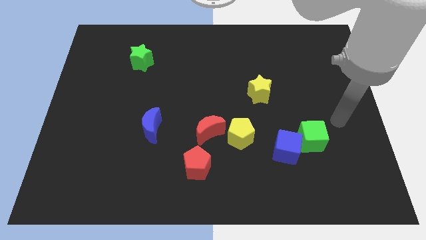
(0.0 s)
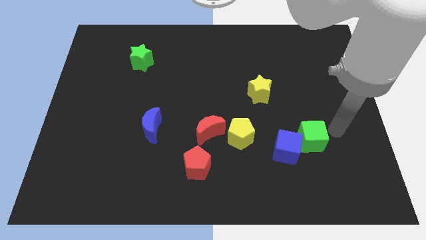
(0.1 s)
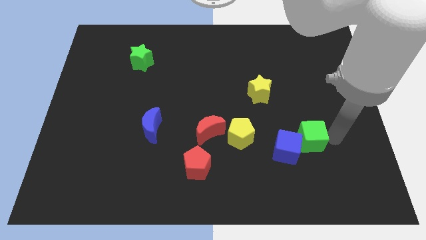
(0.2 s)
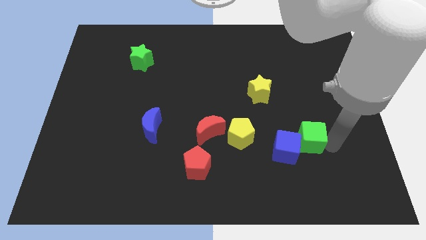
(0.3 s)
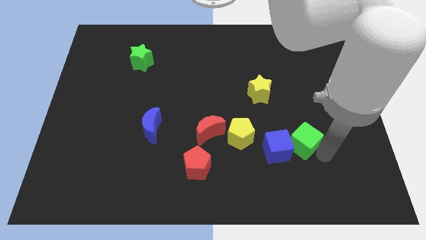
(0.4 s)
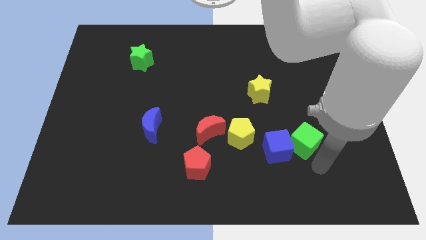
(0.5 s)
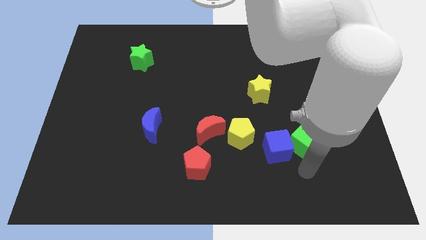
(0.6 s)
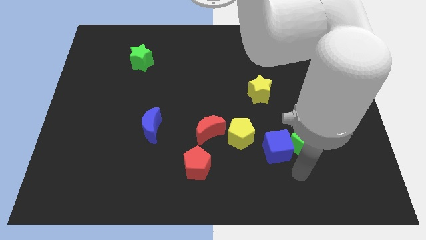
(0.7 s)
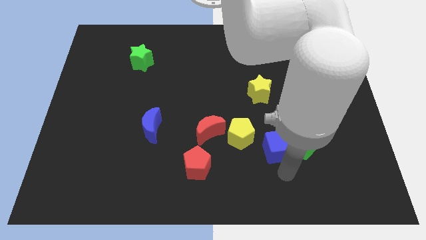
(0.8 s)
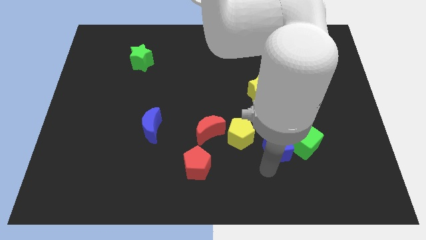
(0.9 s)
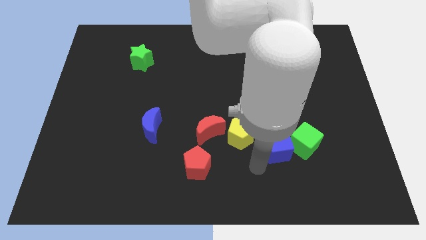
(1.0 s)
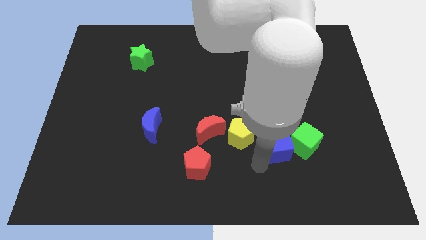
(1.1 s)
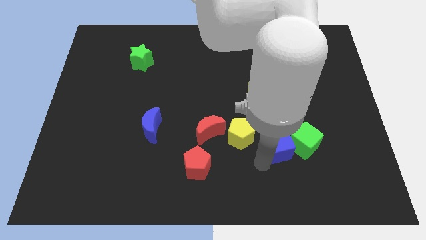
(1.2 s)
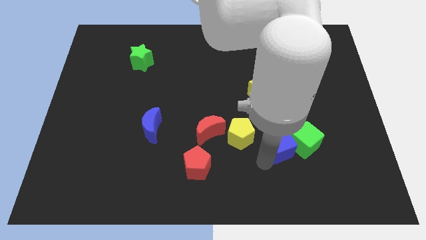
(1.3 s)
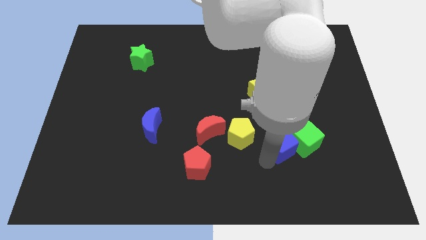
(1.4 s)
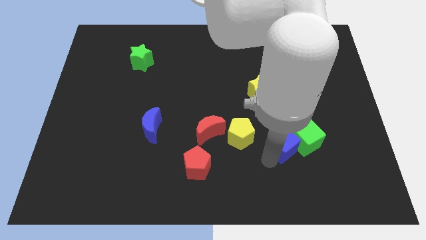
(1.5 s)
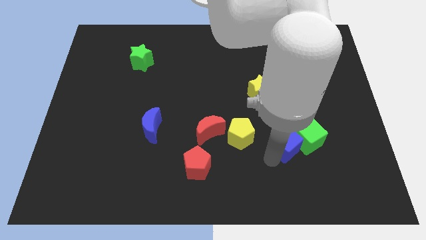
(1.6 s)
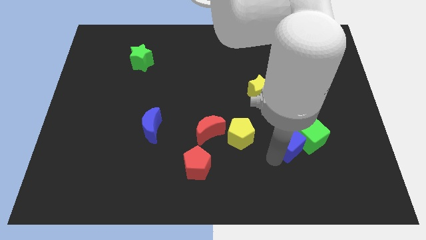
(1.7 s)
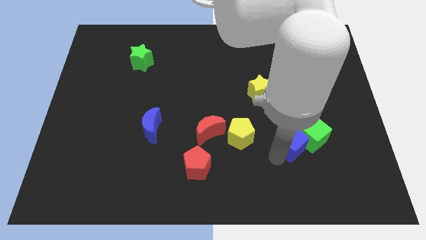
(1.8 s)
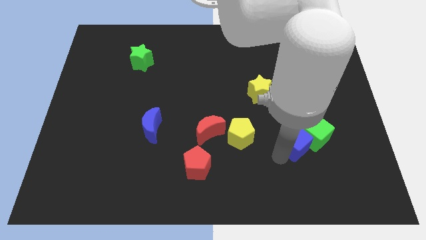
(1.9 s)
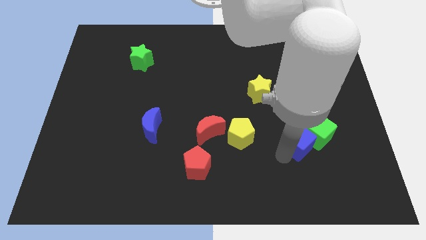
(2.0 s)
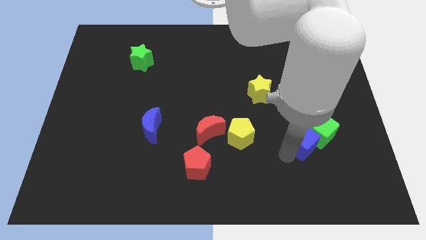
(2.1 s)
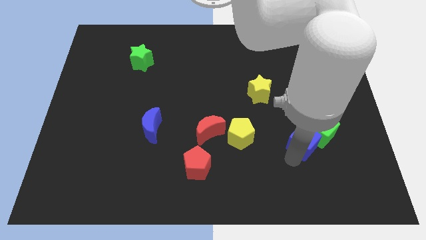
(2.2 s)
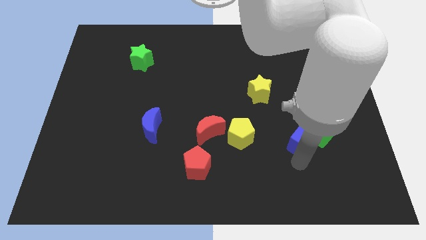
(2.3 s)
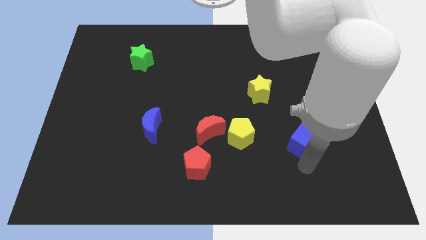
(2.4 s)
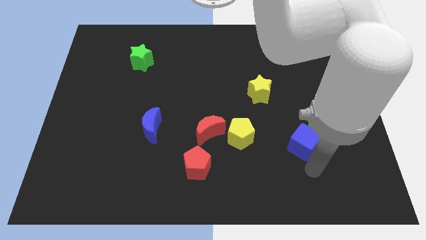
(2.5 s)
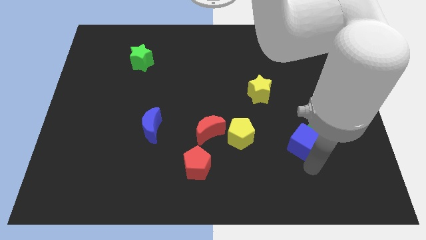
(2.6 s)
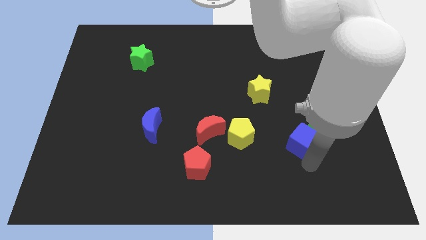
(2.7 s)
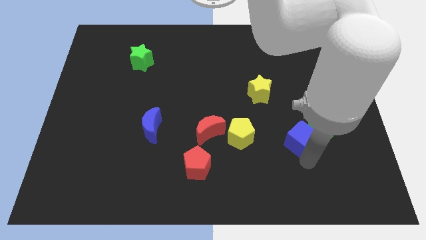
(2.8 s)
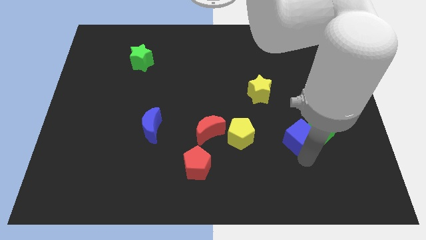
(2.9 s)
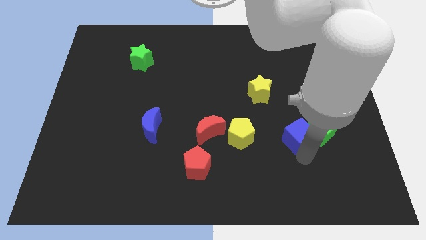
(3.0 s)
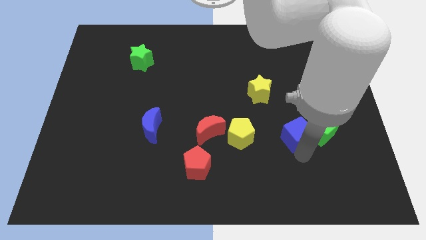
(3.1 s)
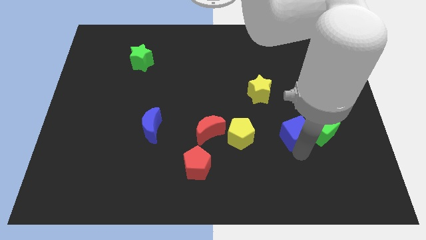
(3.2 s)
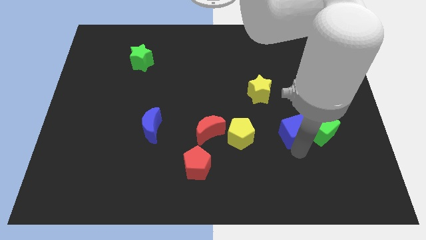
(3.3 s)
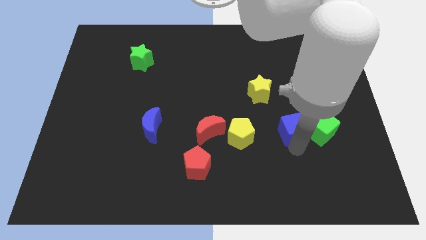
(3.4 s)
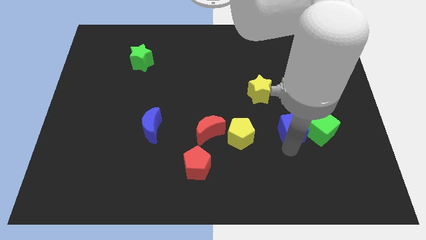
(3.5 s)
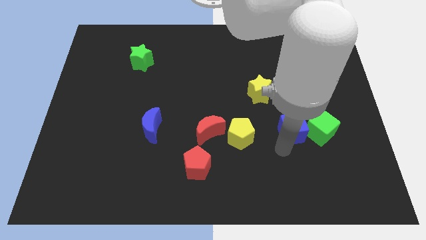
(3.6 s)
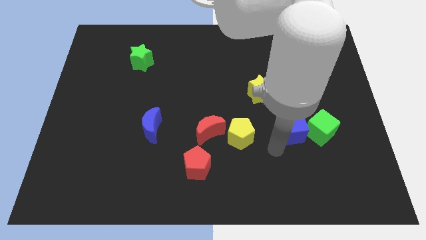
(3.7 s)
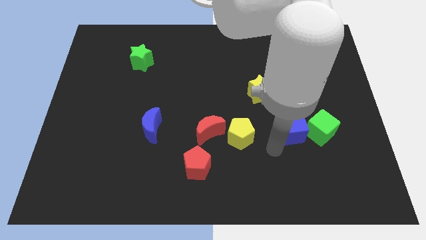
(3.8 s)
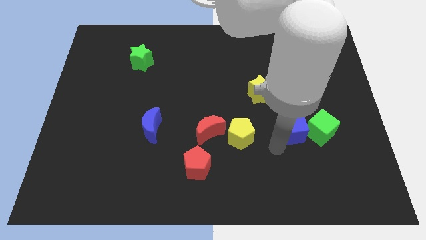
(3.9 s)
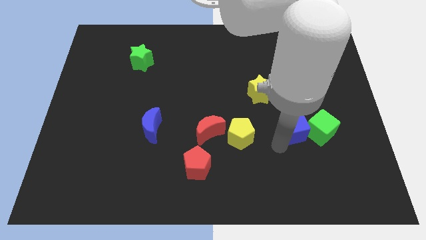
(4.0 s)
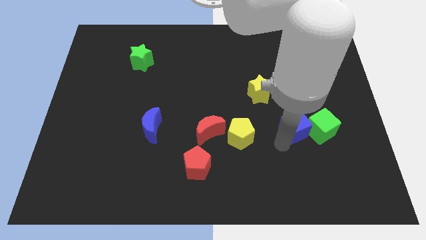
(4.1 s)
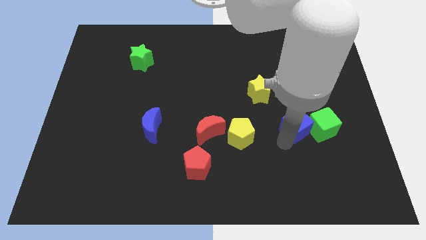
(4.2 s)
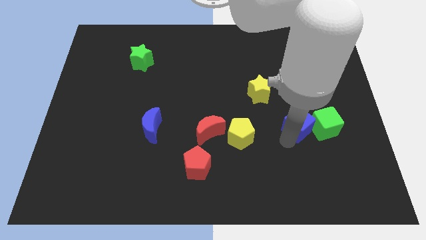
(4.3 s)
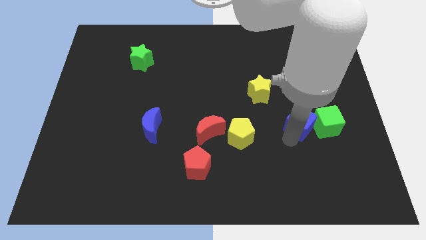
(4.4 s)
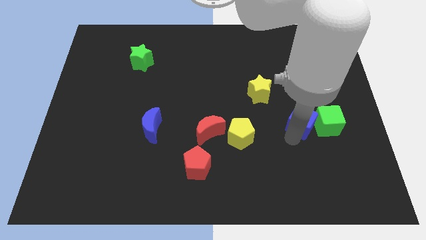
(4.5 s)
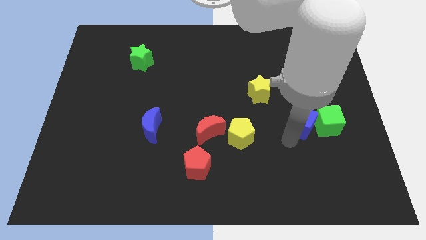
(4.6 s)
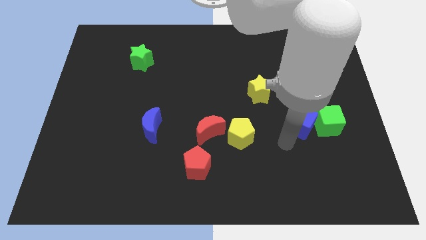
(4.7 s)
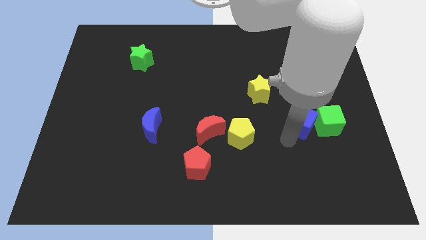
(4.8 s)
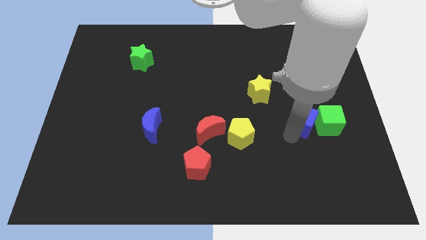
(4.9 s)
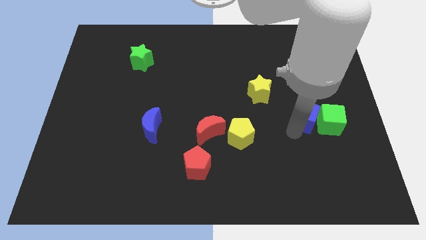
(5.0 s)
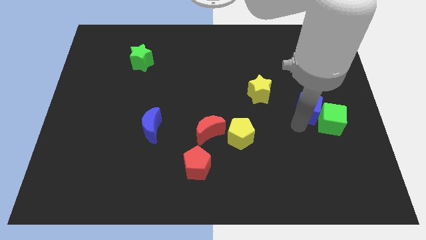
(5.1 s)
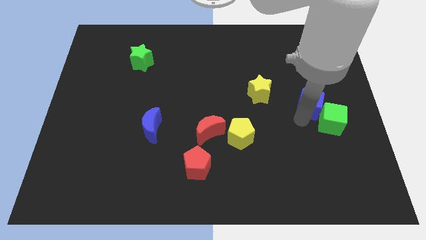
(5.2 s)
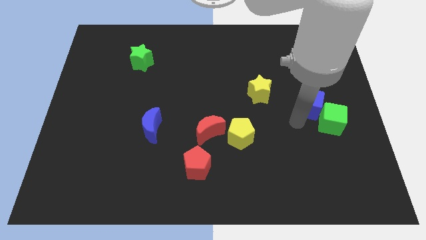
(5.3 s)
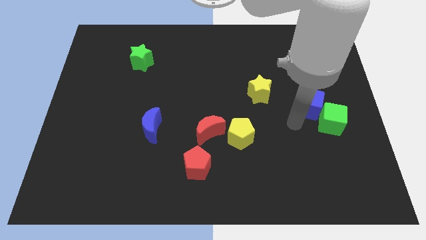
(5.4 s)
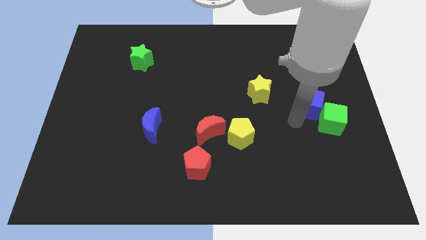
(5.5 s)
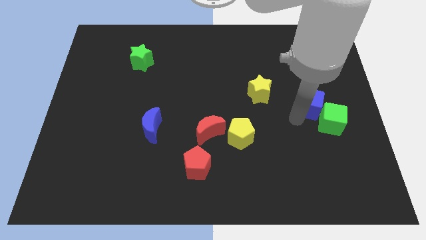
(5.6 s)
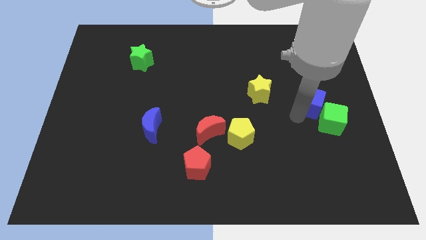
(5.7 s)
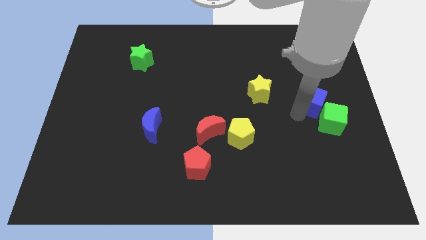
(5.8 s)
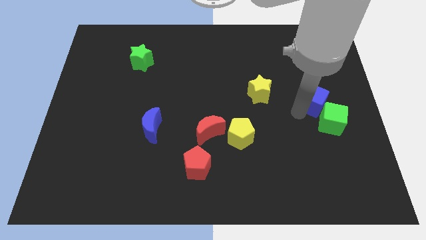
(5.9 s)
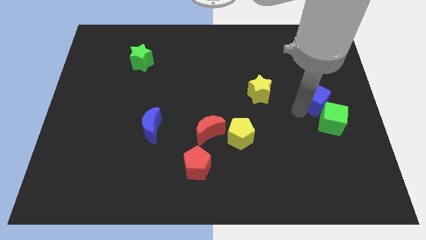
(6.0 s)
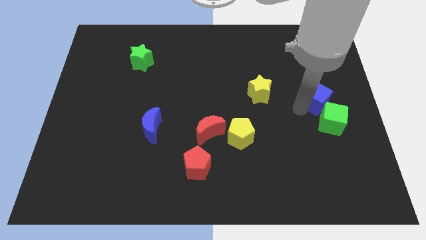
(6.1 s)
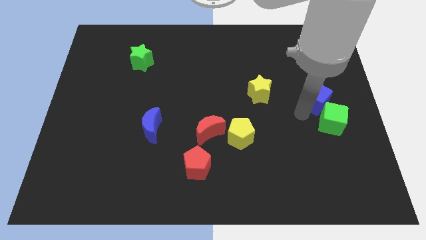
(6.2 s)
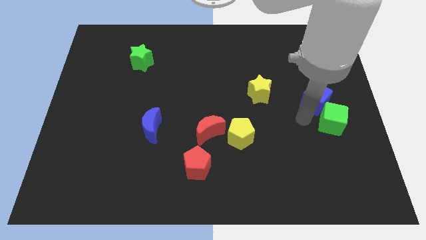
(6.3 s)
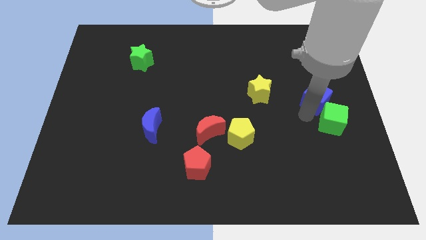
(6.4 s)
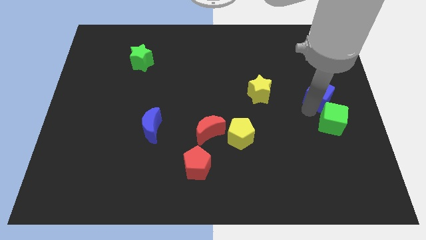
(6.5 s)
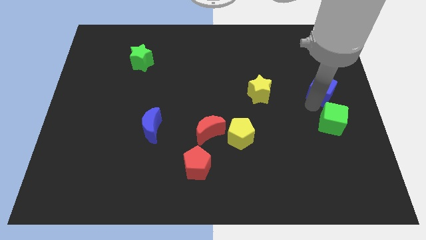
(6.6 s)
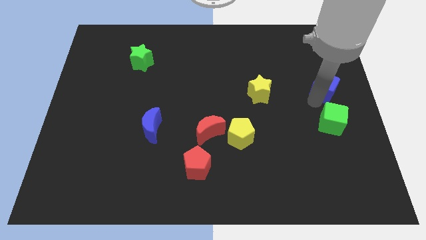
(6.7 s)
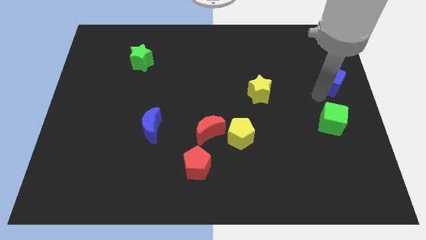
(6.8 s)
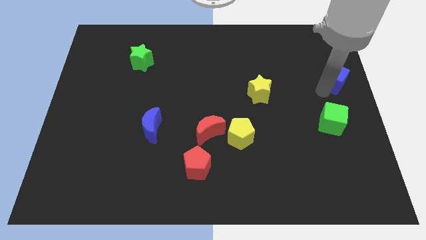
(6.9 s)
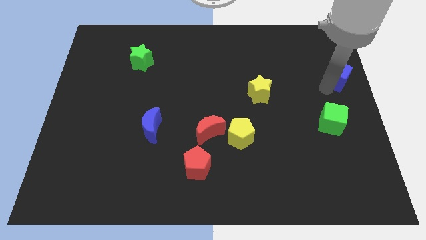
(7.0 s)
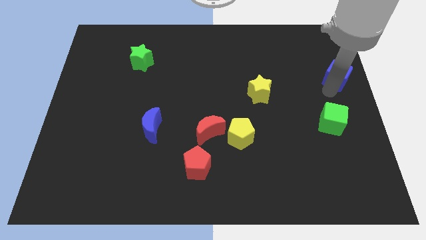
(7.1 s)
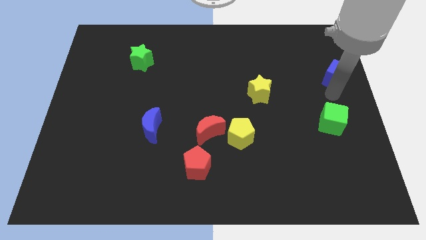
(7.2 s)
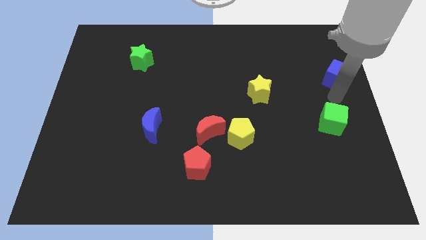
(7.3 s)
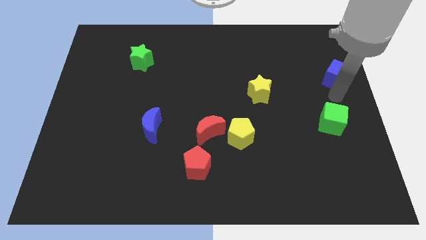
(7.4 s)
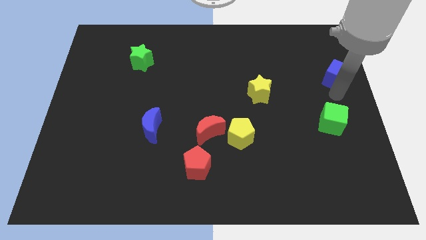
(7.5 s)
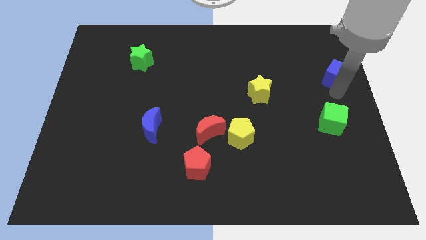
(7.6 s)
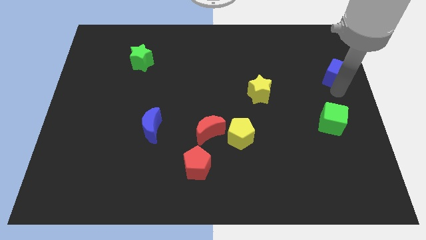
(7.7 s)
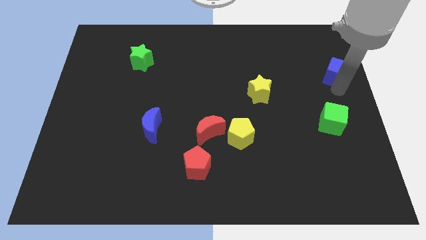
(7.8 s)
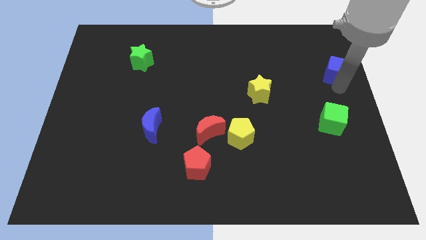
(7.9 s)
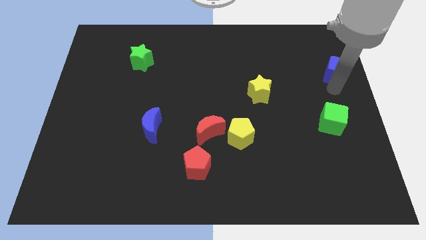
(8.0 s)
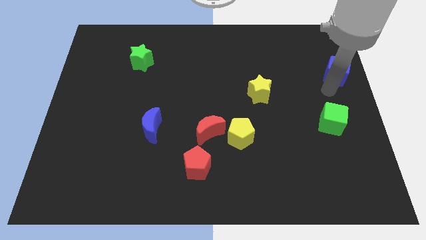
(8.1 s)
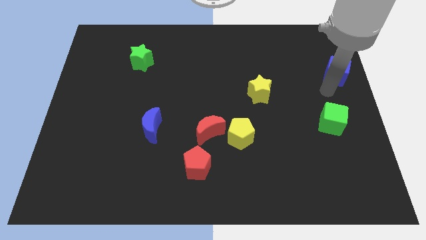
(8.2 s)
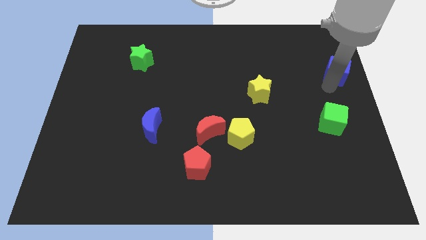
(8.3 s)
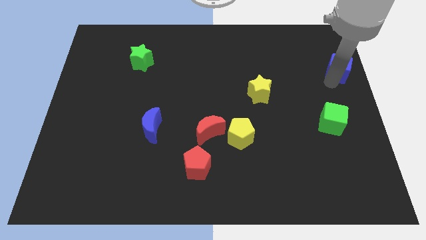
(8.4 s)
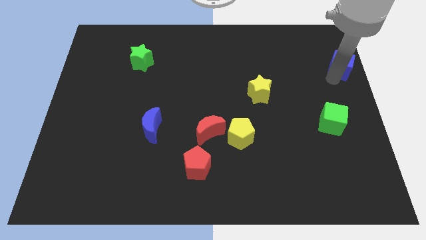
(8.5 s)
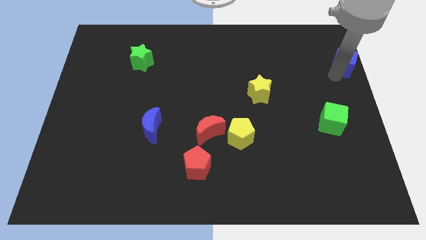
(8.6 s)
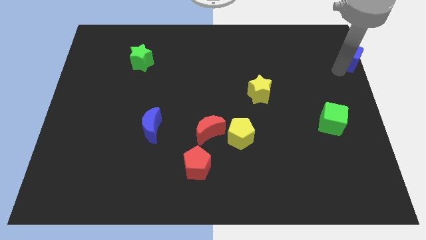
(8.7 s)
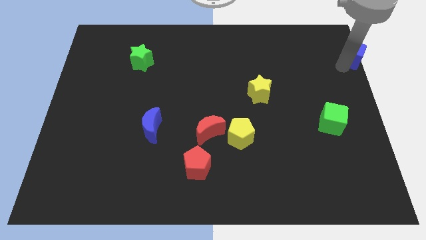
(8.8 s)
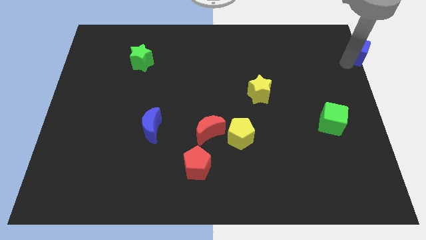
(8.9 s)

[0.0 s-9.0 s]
push the blue cube to the top right of the board
